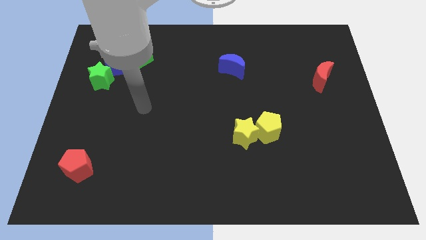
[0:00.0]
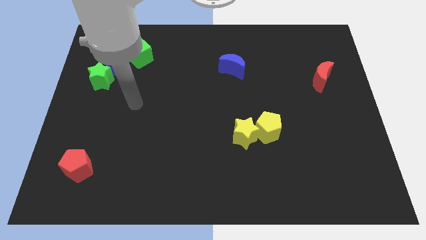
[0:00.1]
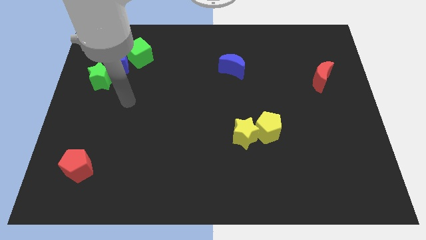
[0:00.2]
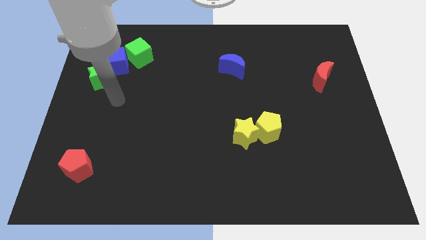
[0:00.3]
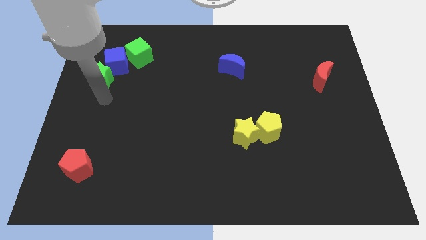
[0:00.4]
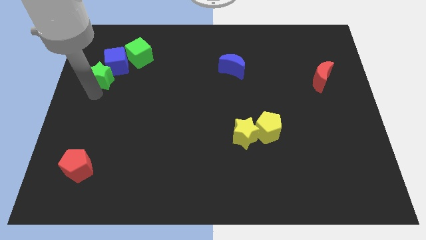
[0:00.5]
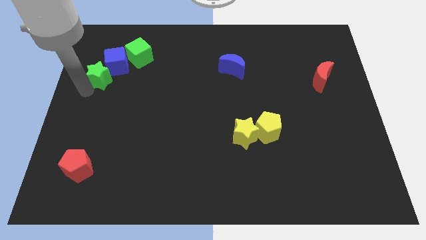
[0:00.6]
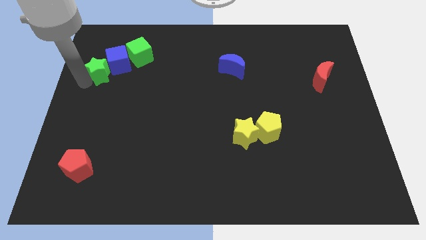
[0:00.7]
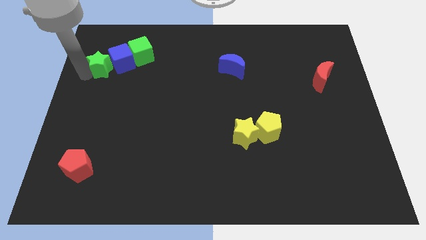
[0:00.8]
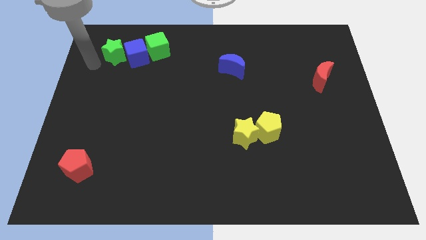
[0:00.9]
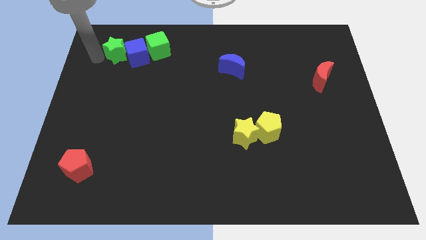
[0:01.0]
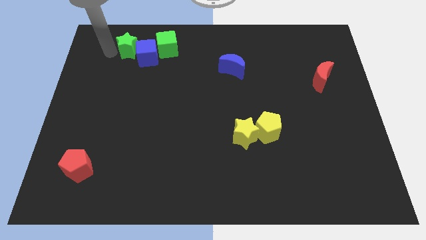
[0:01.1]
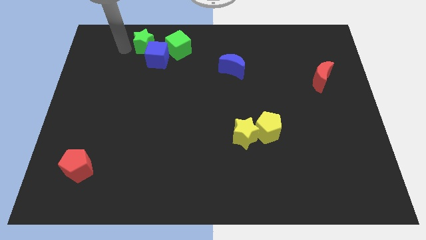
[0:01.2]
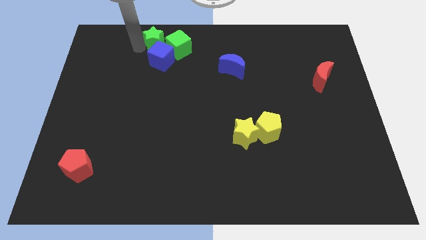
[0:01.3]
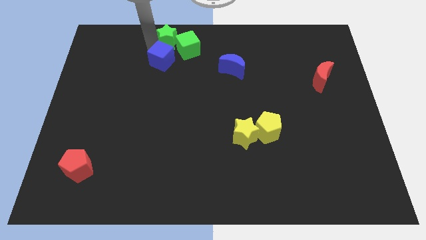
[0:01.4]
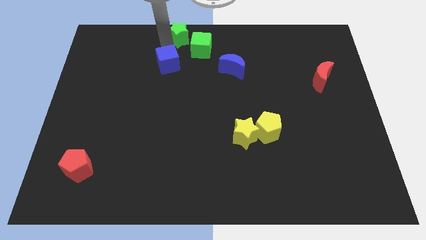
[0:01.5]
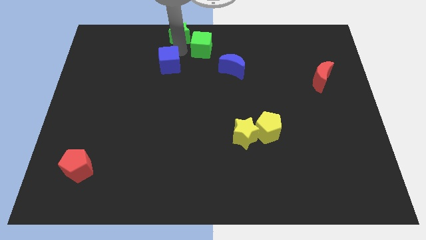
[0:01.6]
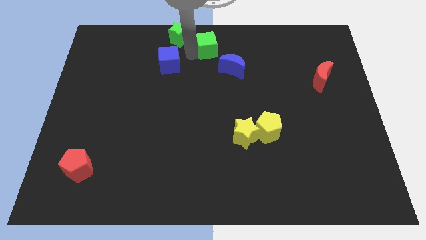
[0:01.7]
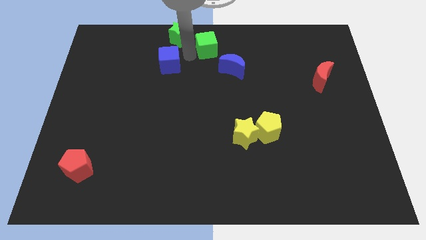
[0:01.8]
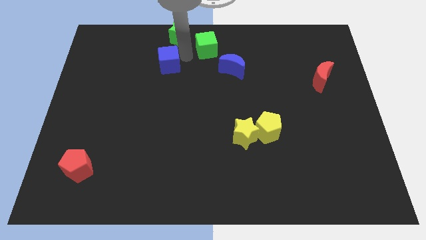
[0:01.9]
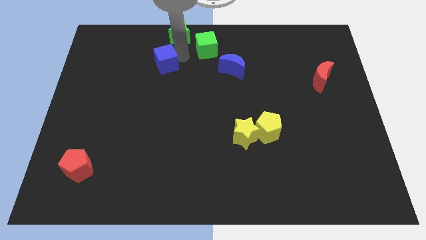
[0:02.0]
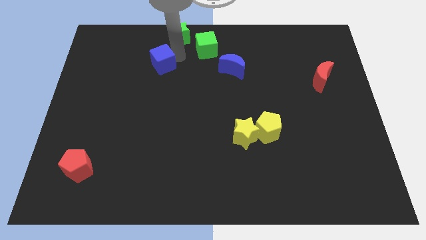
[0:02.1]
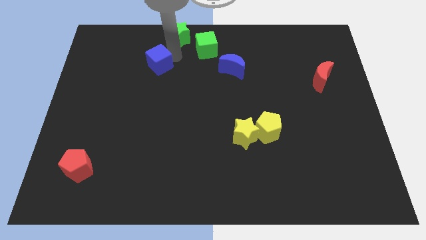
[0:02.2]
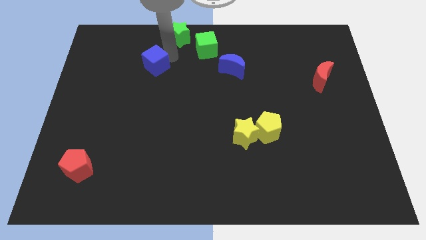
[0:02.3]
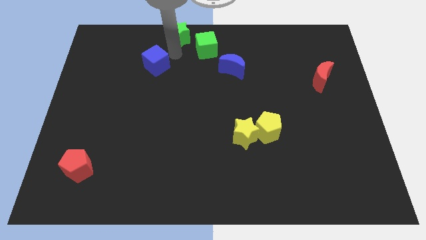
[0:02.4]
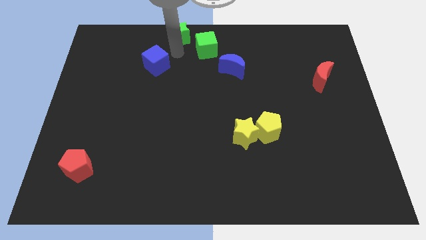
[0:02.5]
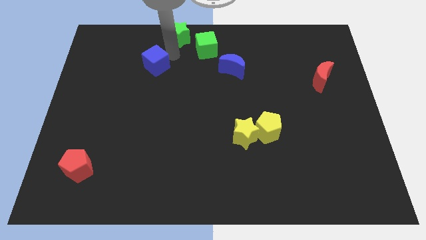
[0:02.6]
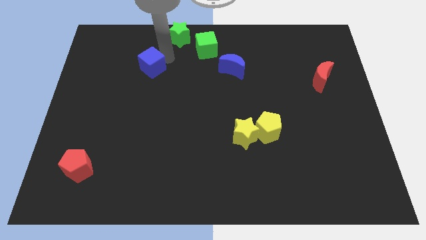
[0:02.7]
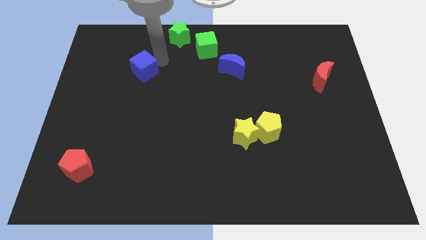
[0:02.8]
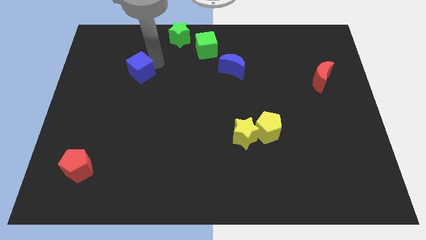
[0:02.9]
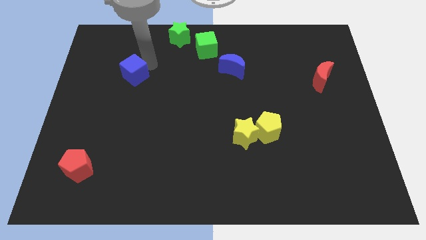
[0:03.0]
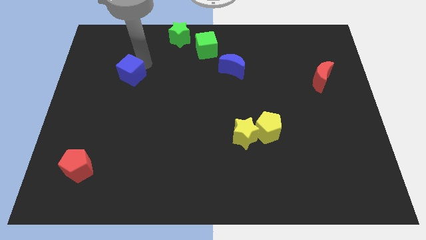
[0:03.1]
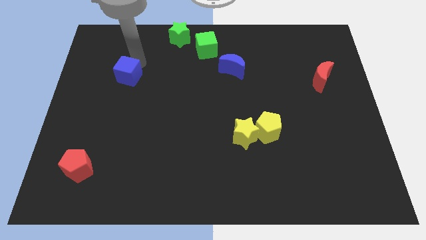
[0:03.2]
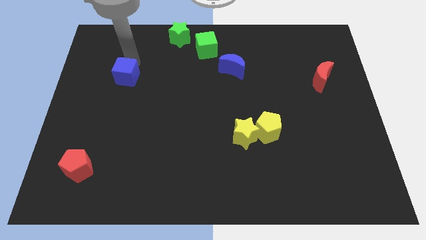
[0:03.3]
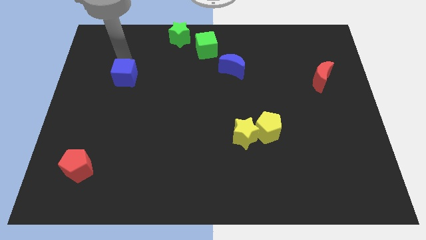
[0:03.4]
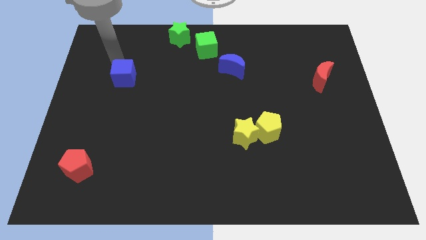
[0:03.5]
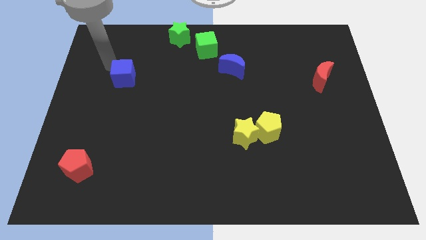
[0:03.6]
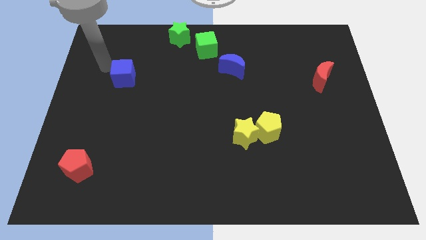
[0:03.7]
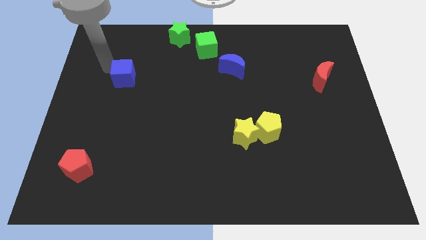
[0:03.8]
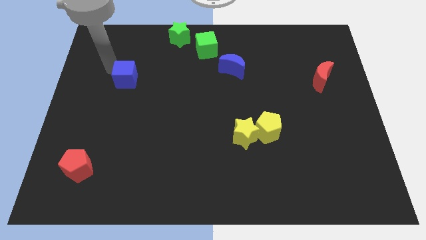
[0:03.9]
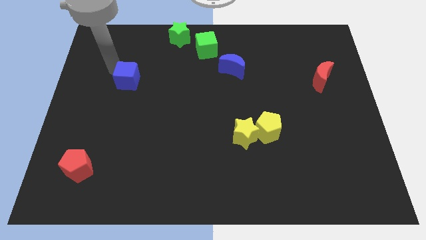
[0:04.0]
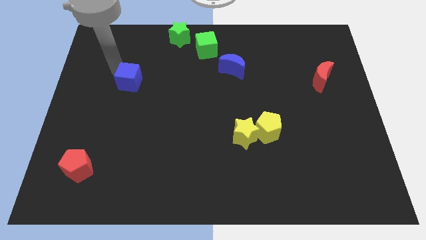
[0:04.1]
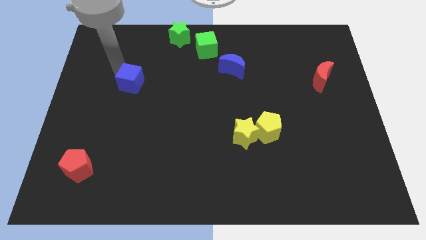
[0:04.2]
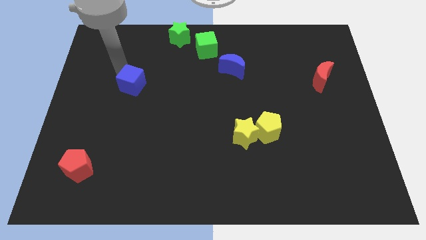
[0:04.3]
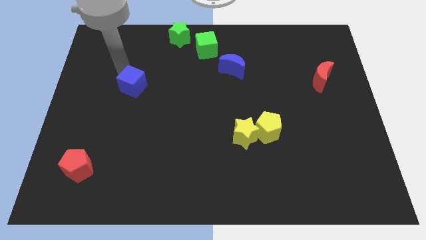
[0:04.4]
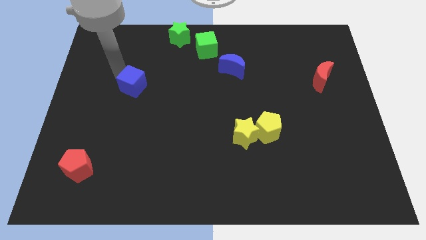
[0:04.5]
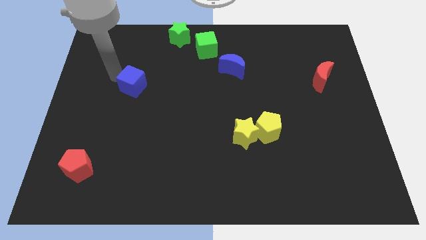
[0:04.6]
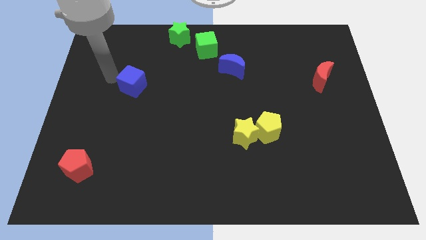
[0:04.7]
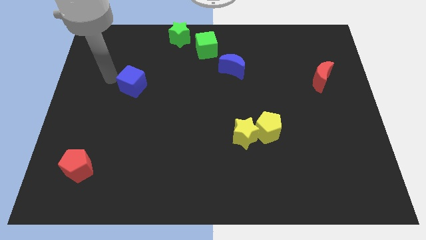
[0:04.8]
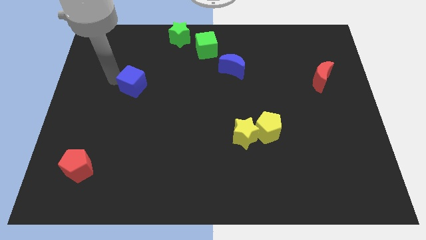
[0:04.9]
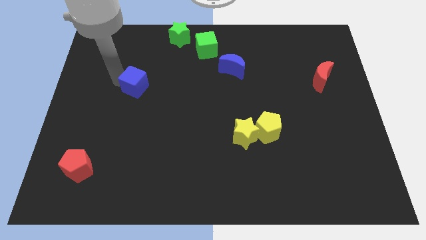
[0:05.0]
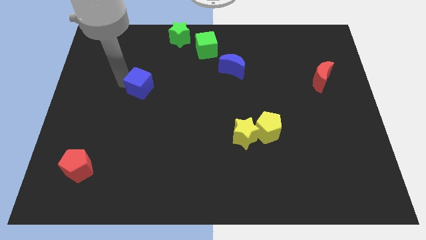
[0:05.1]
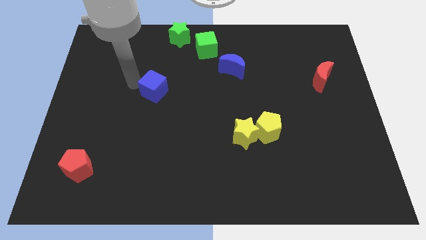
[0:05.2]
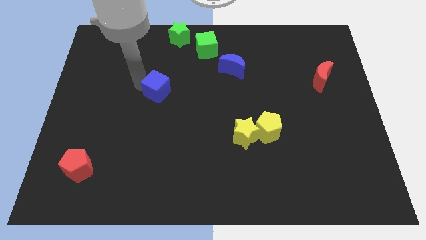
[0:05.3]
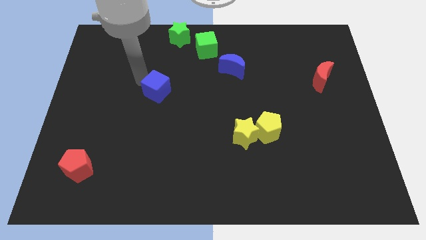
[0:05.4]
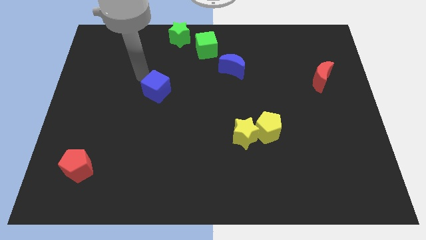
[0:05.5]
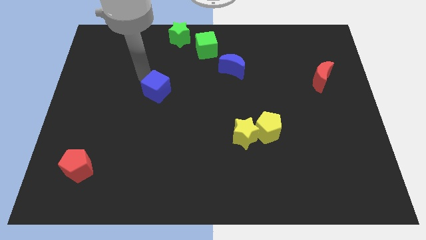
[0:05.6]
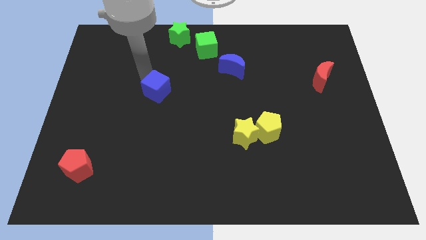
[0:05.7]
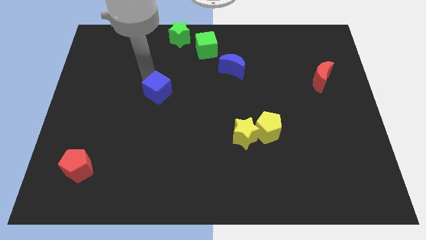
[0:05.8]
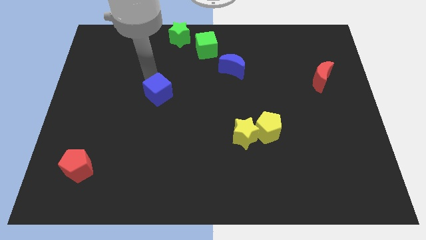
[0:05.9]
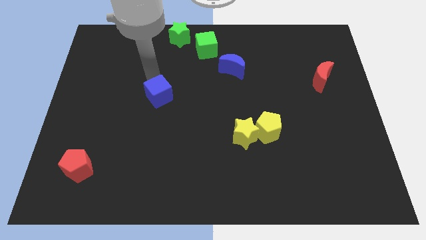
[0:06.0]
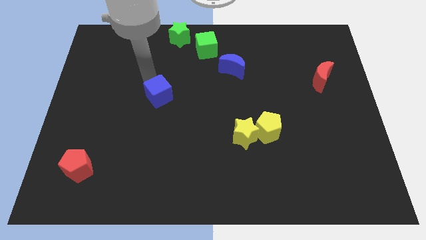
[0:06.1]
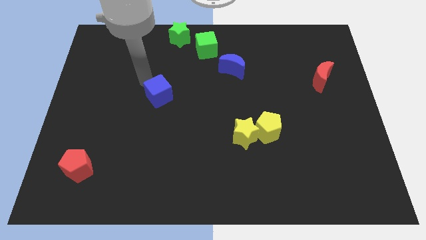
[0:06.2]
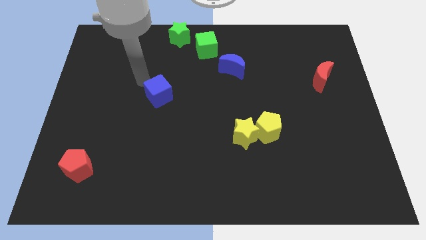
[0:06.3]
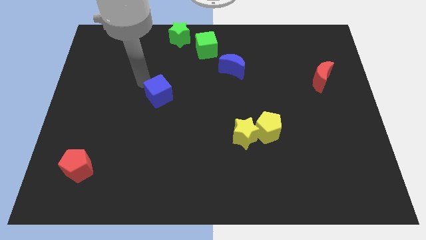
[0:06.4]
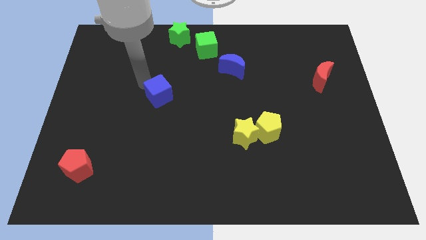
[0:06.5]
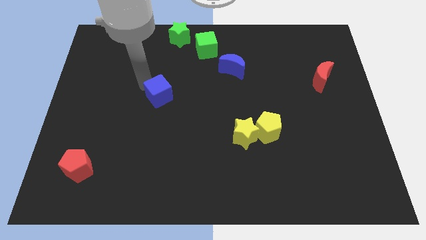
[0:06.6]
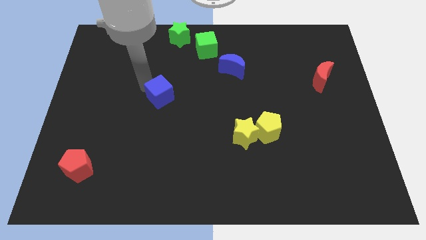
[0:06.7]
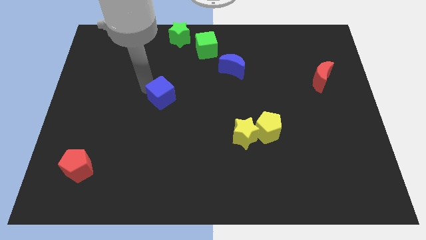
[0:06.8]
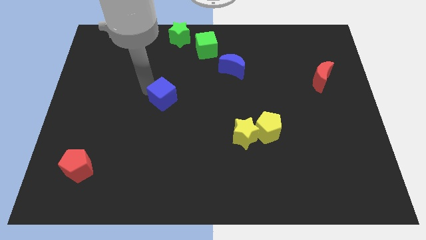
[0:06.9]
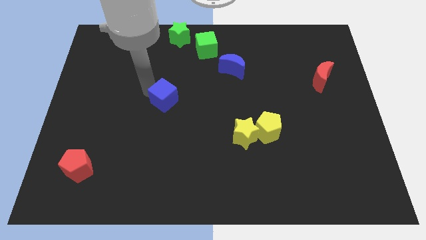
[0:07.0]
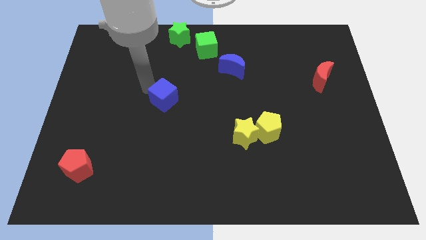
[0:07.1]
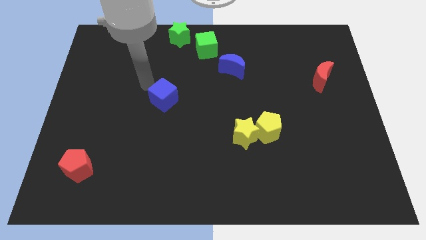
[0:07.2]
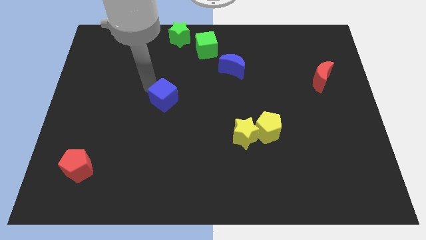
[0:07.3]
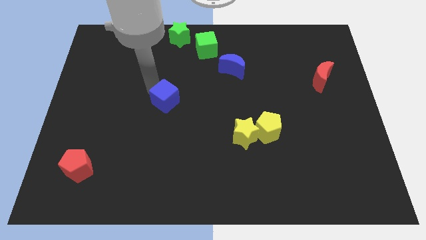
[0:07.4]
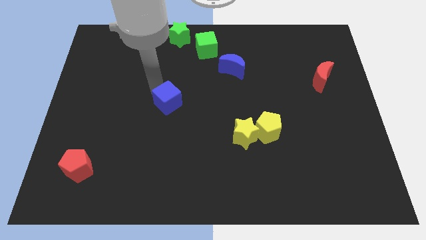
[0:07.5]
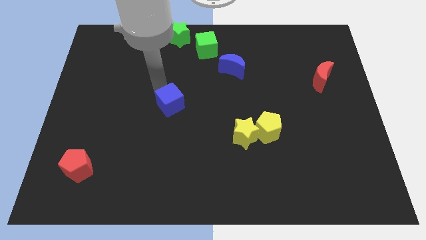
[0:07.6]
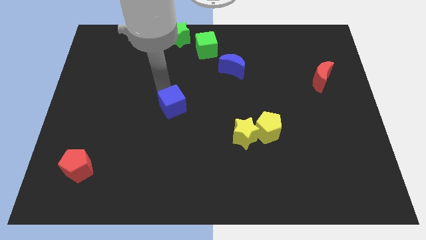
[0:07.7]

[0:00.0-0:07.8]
slide the blue cube down and to the right diagonally
